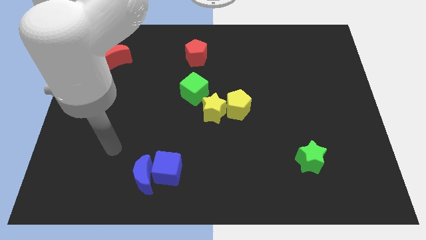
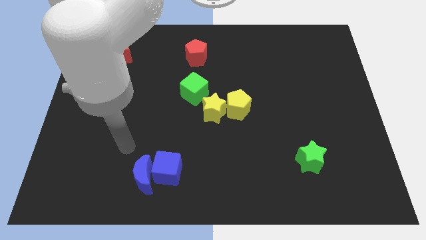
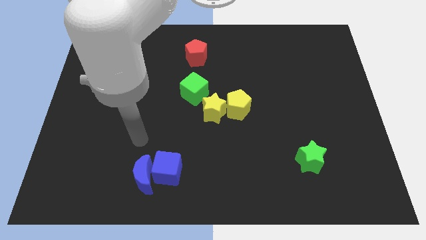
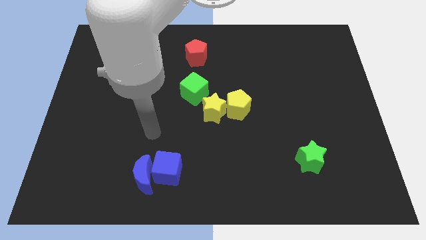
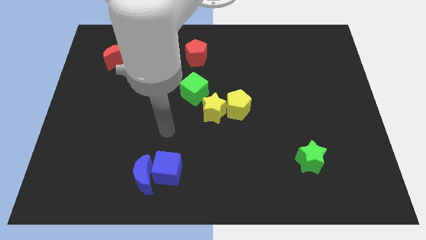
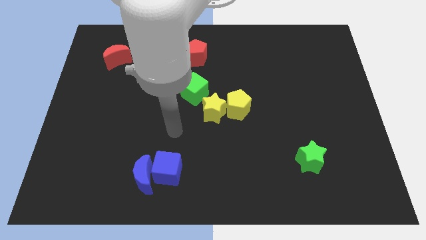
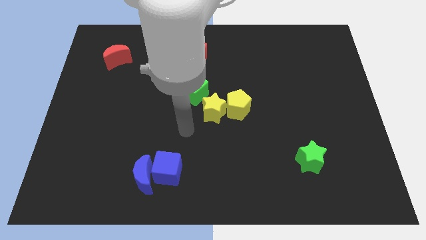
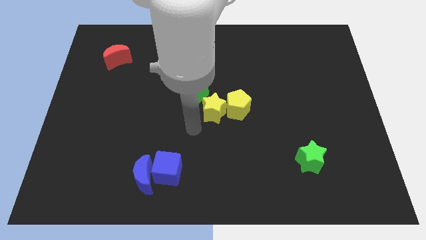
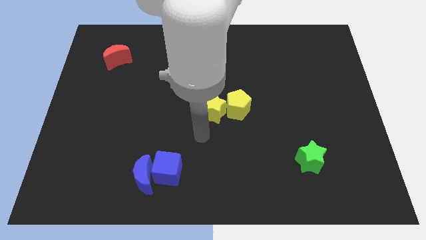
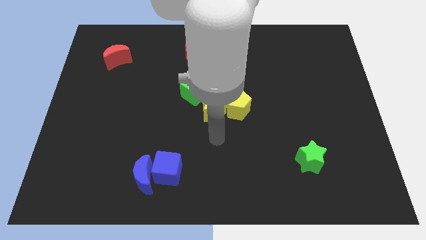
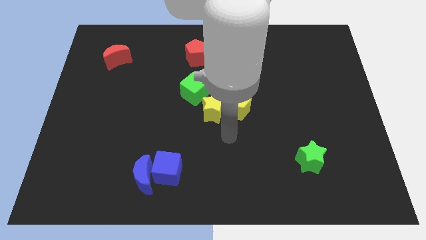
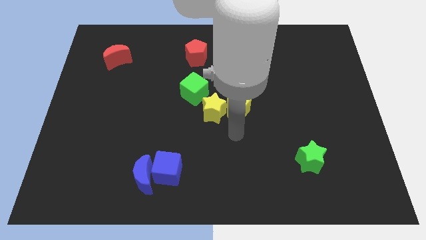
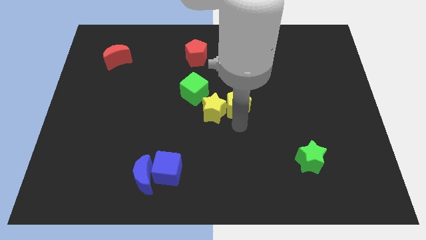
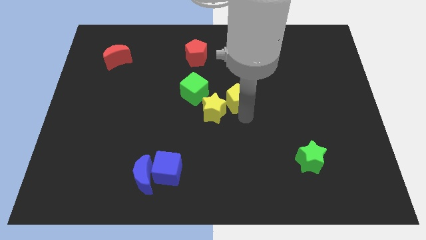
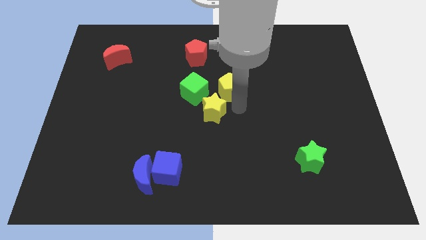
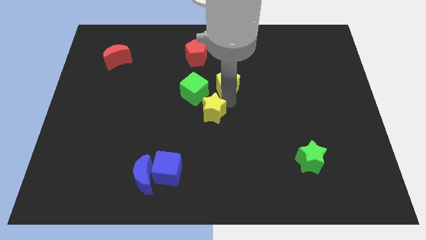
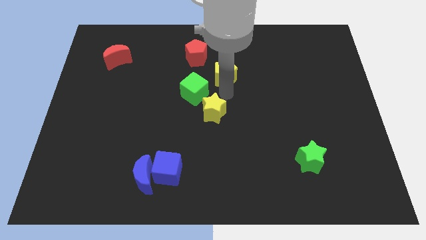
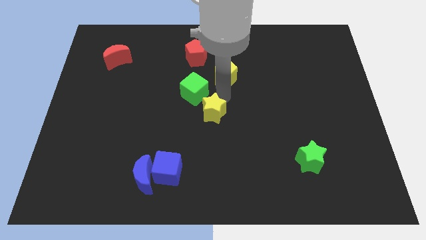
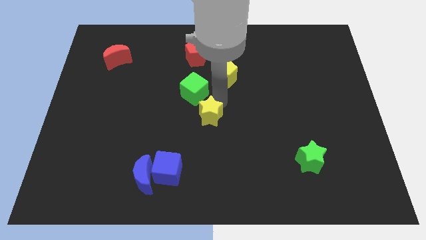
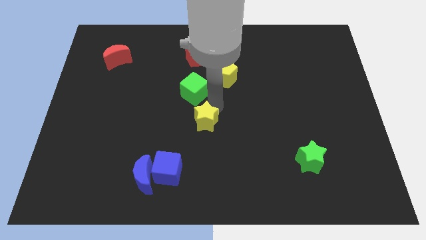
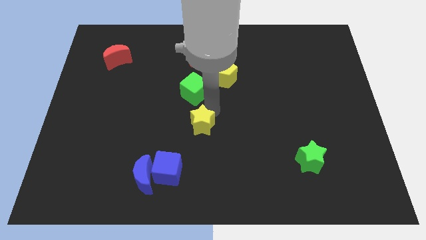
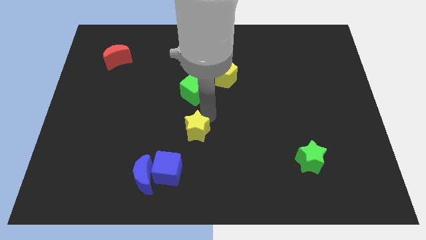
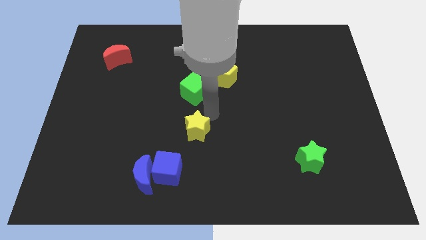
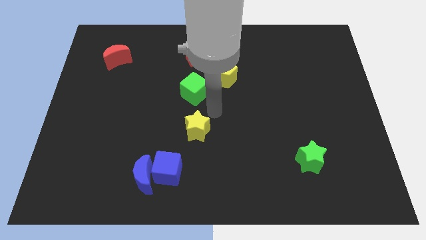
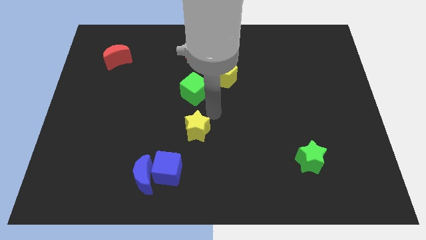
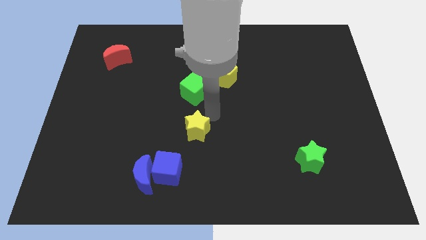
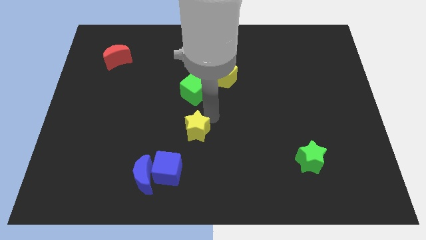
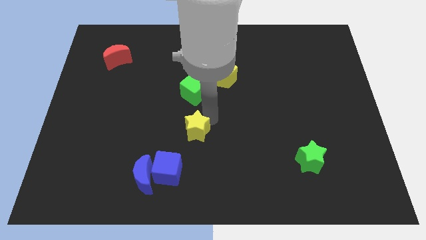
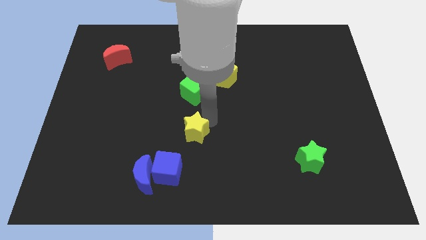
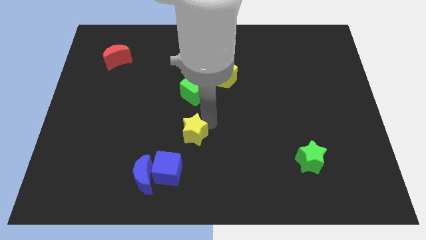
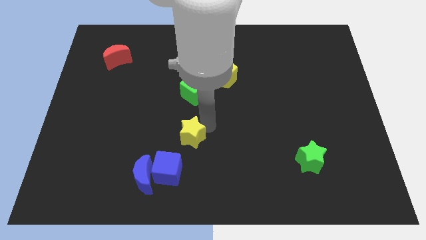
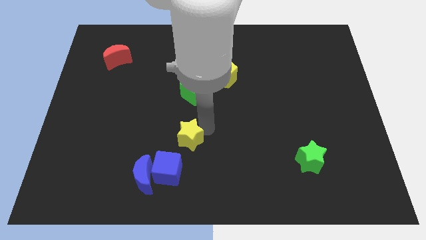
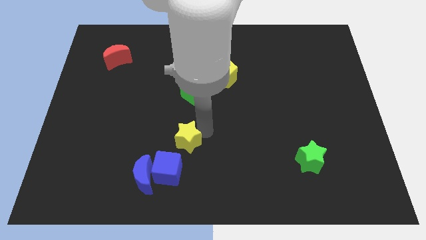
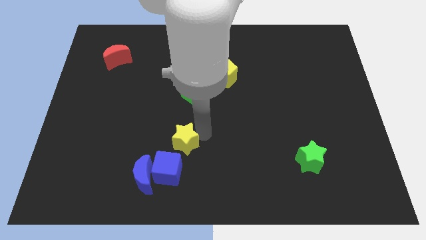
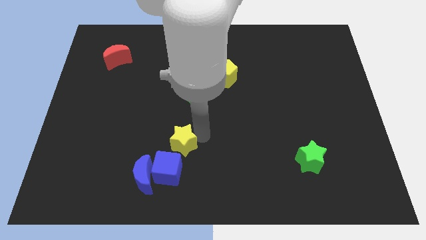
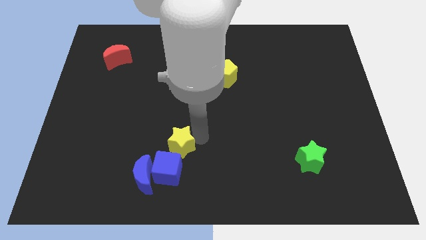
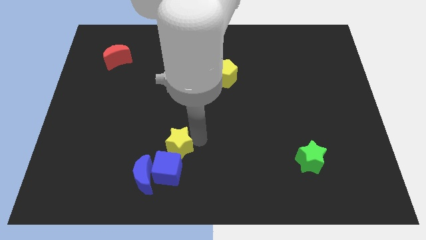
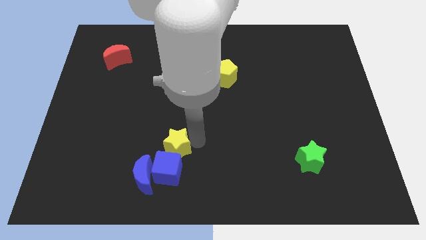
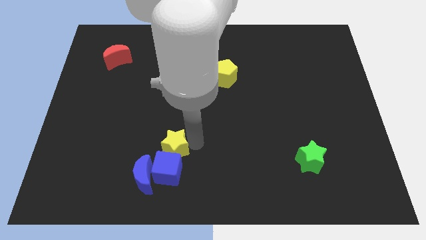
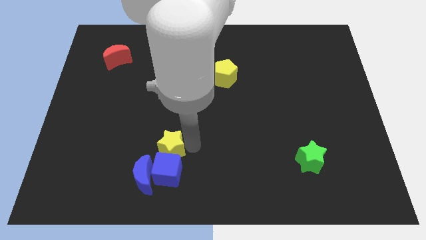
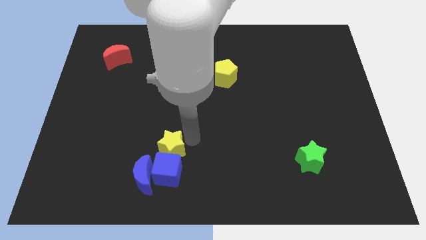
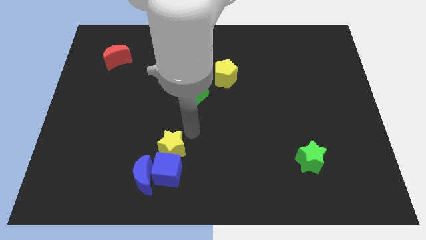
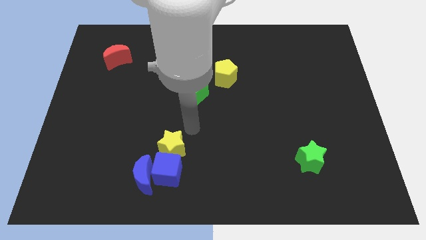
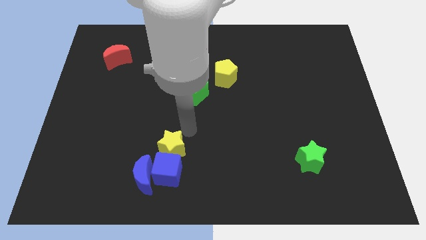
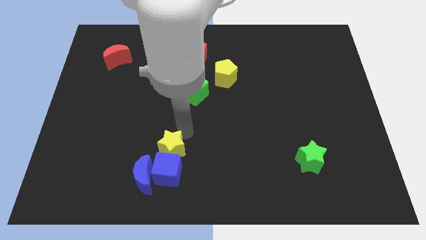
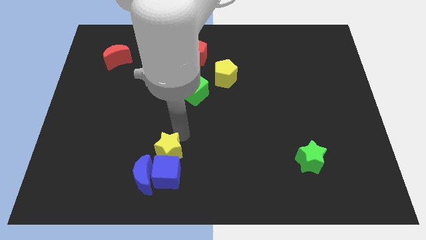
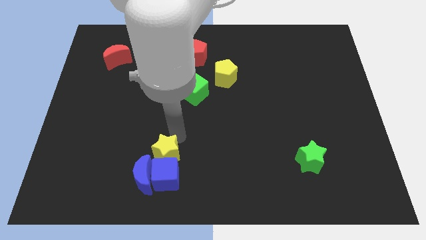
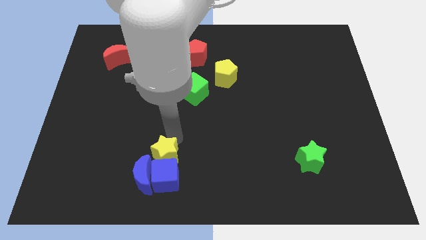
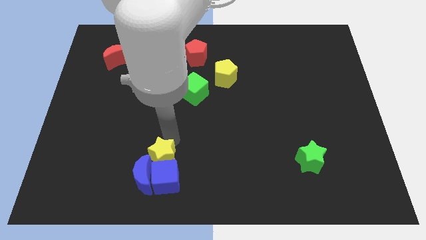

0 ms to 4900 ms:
push the yellow star towards the blue moon

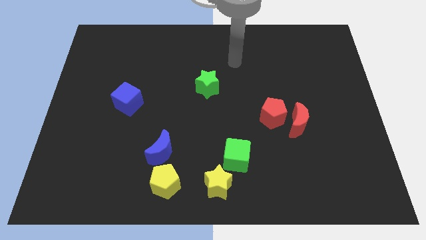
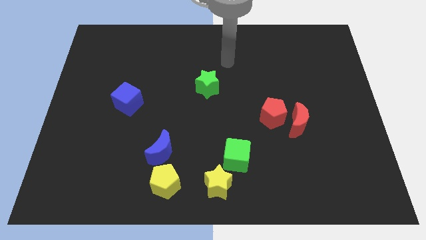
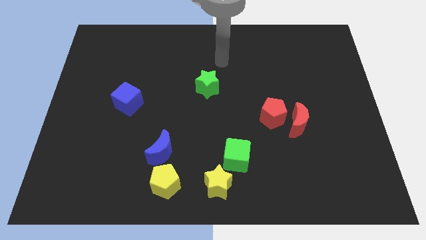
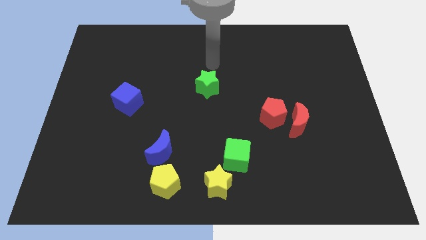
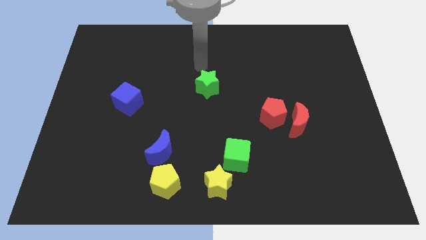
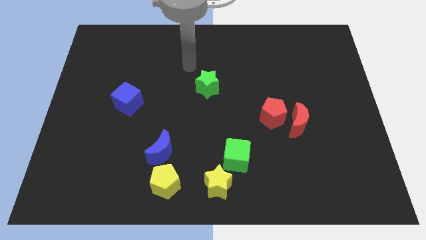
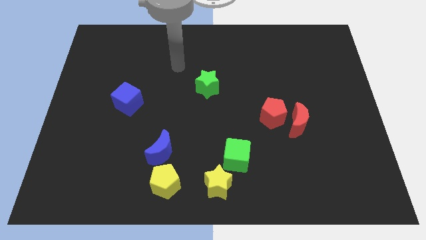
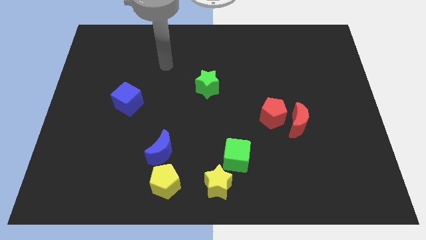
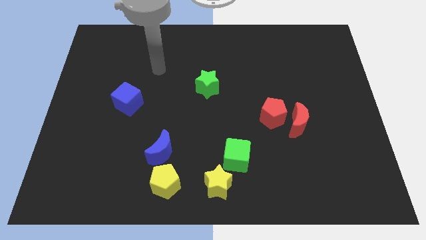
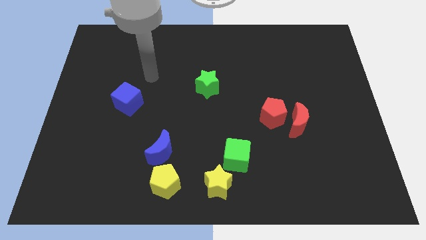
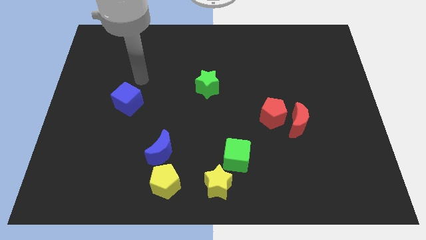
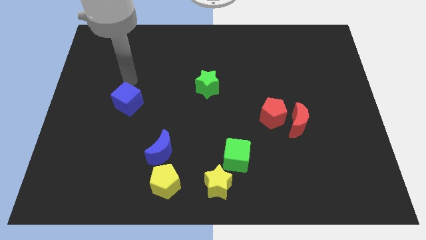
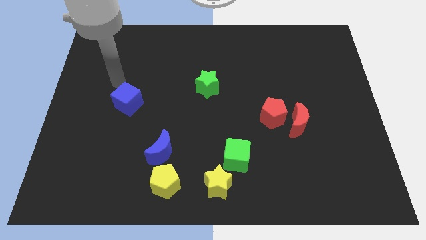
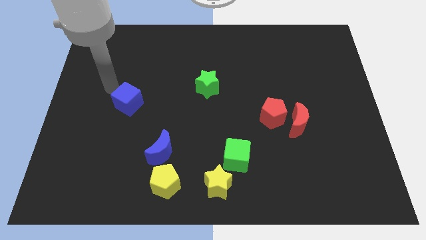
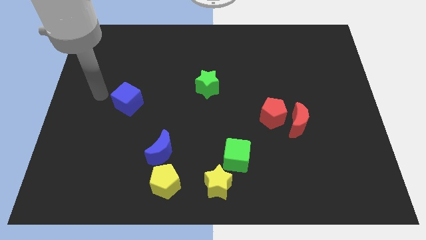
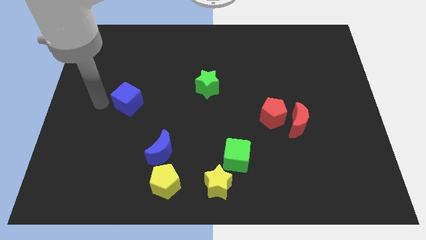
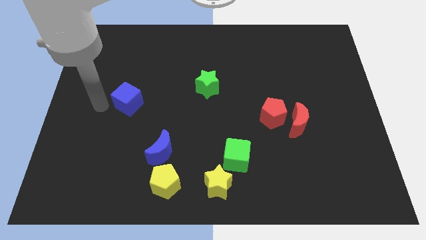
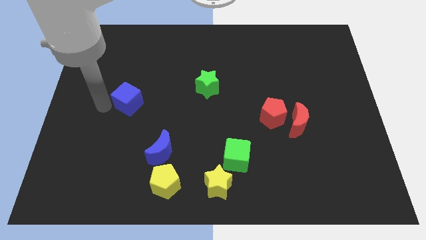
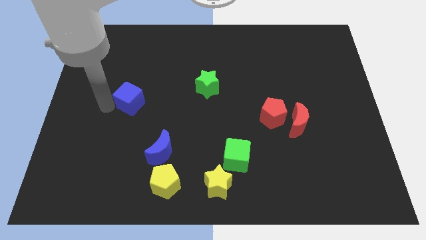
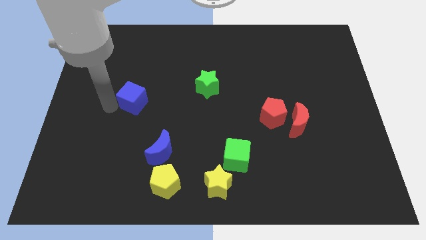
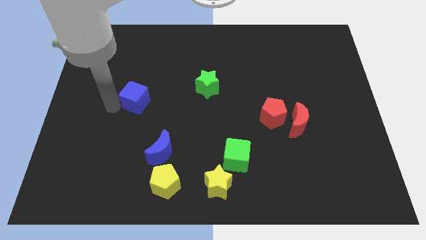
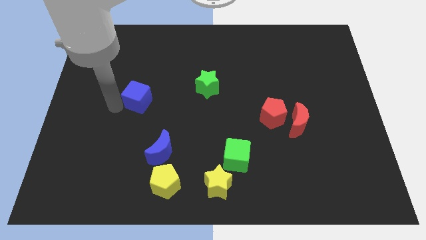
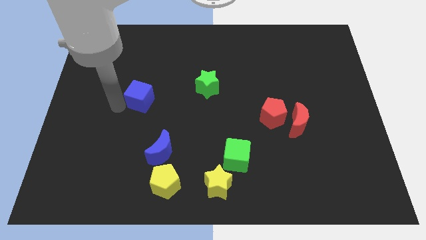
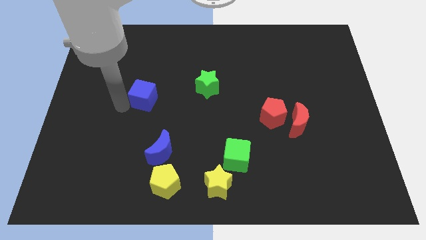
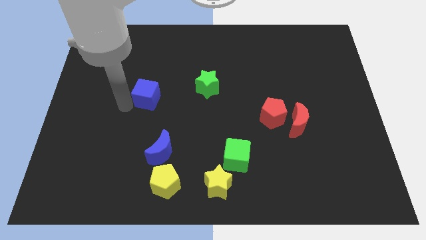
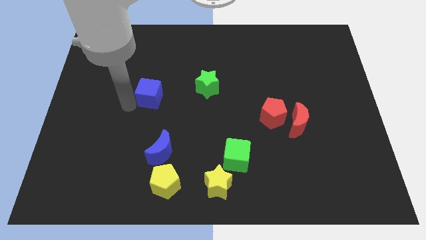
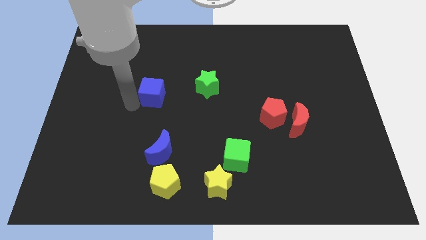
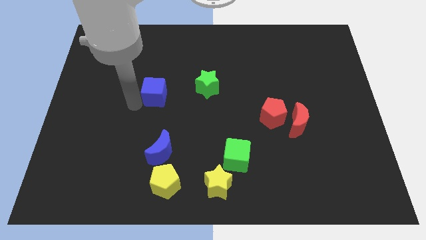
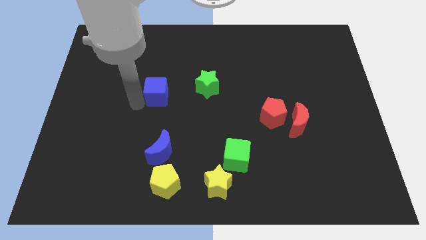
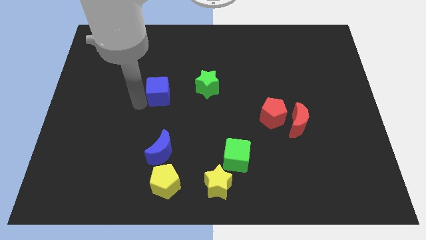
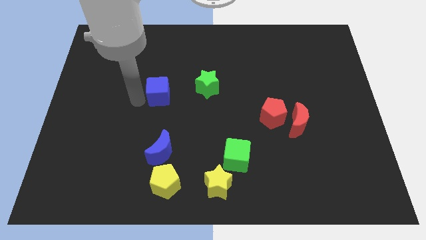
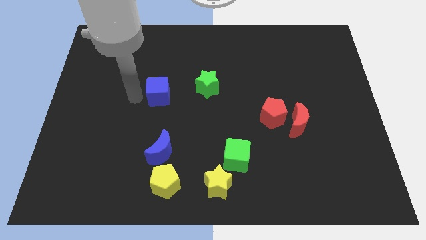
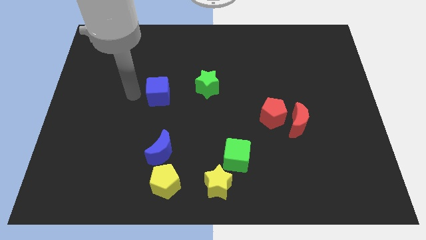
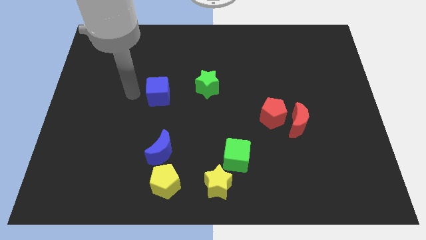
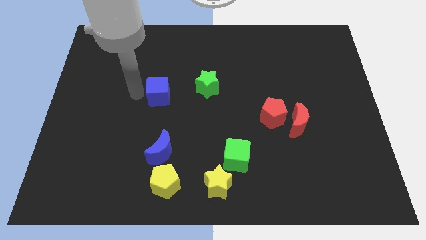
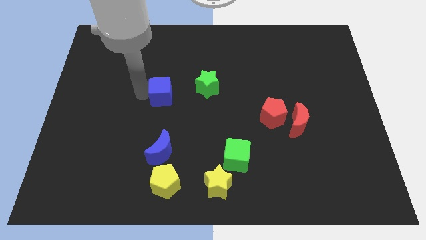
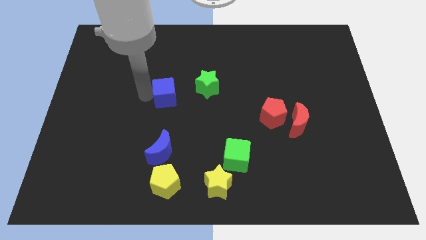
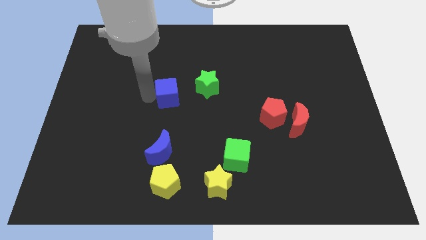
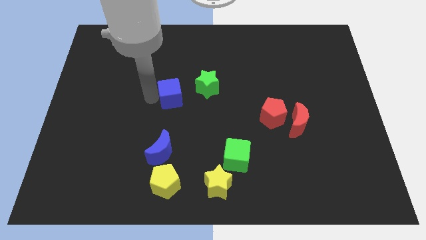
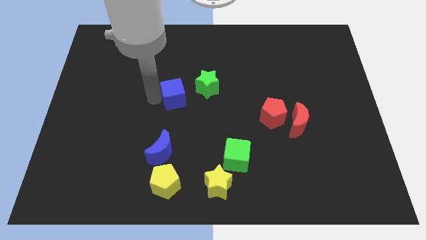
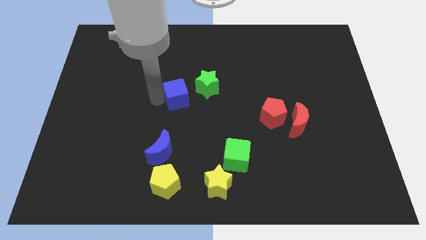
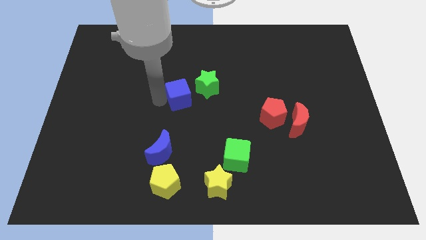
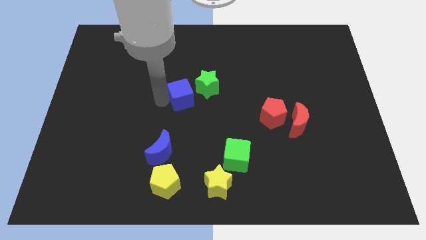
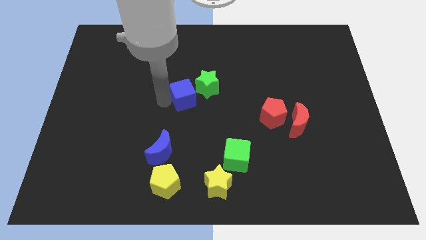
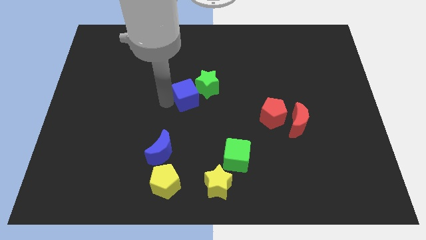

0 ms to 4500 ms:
slide the blue cube to the green star
